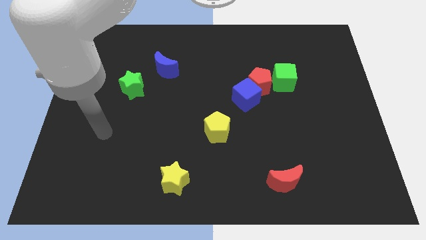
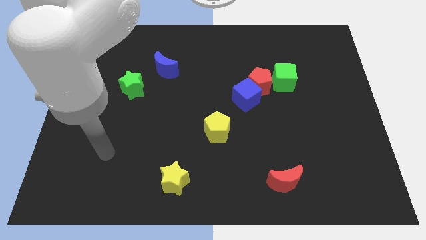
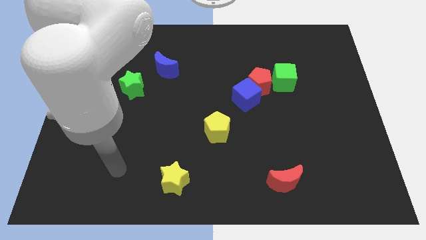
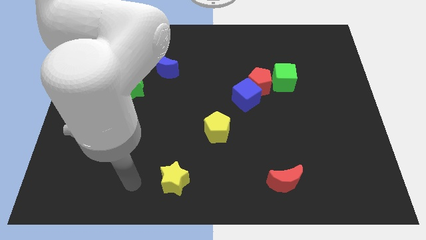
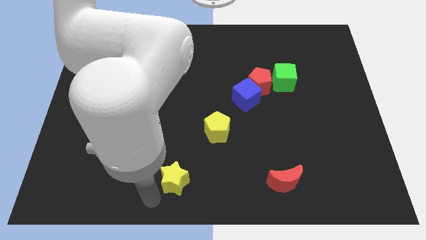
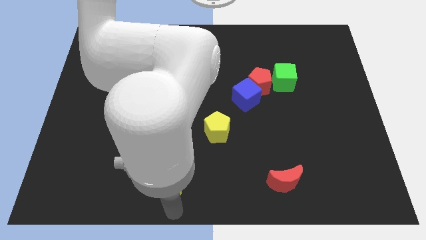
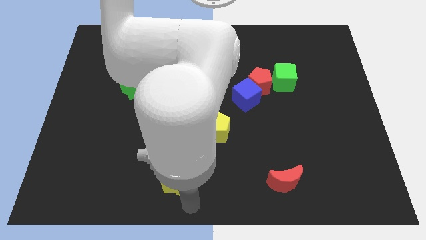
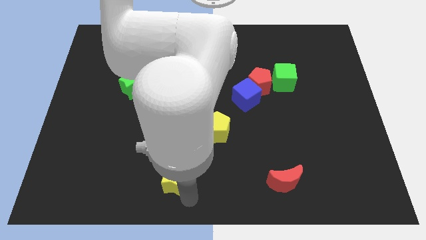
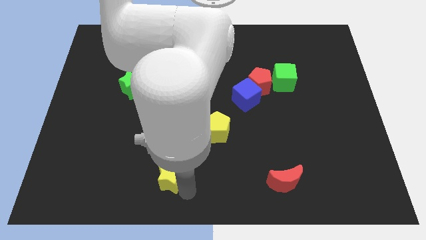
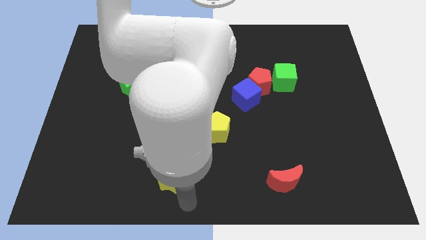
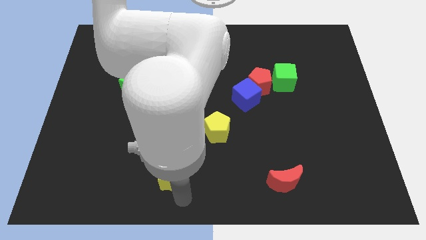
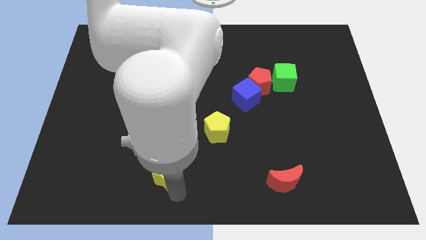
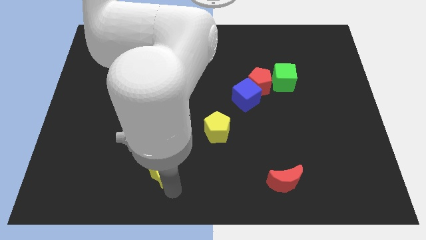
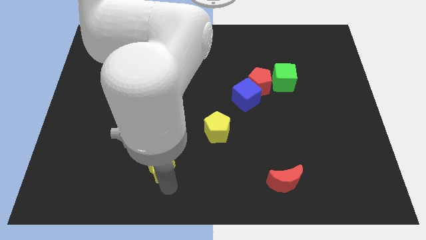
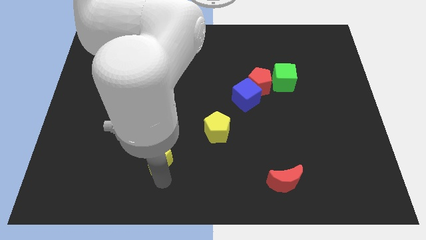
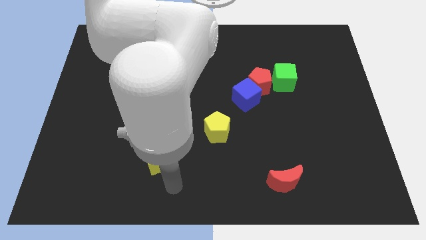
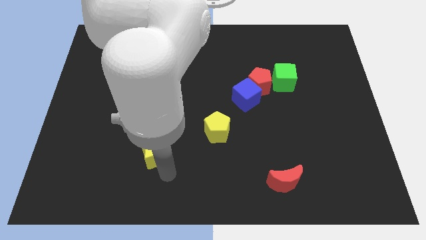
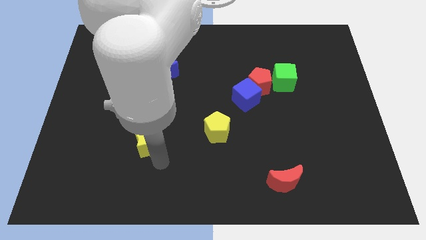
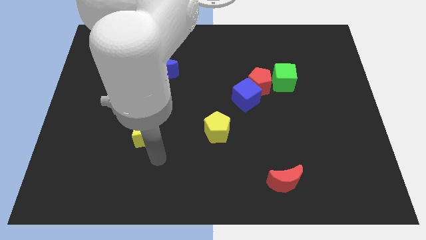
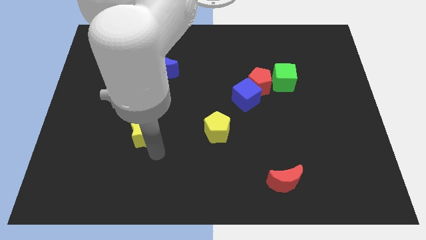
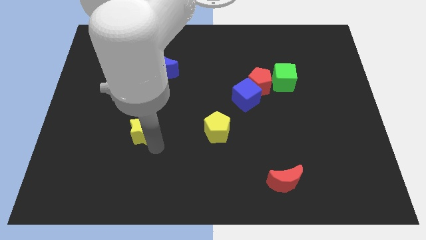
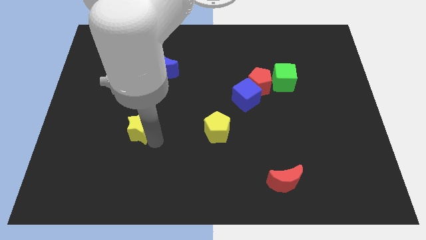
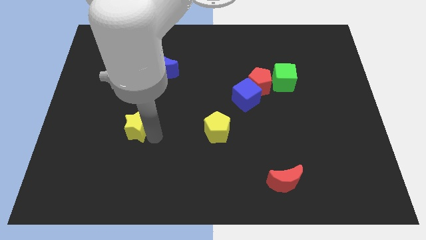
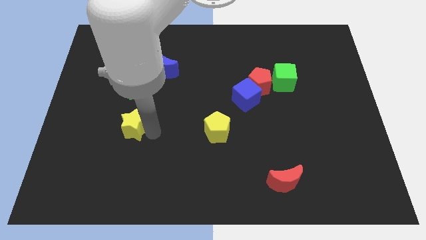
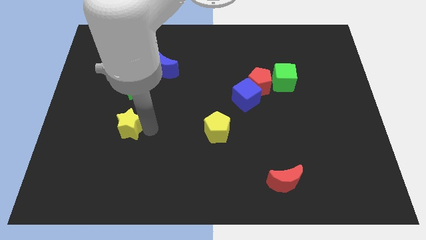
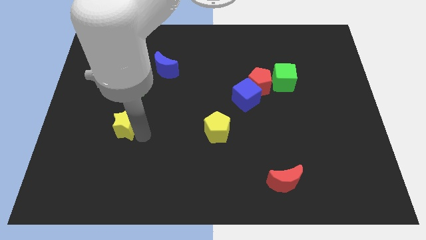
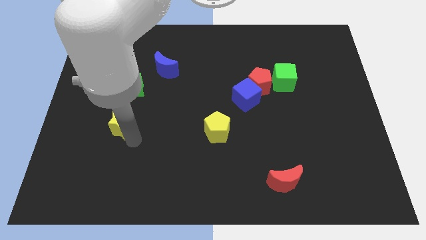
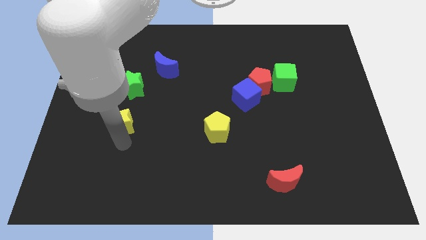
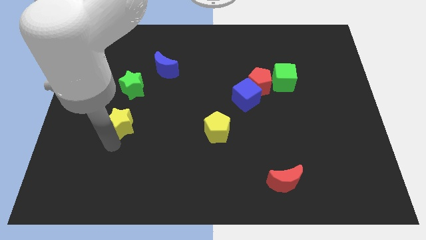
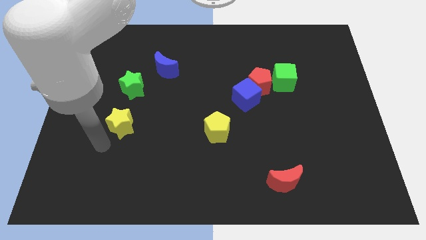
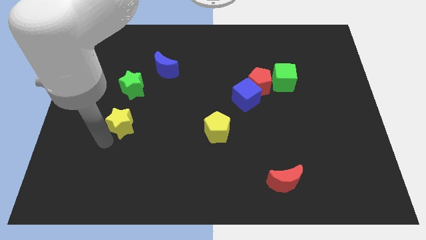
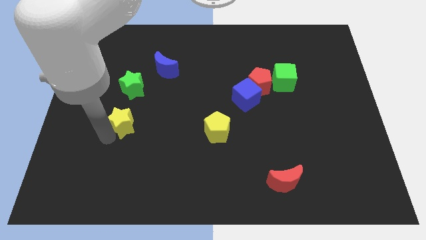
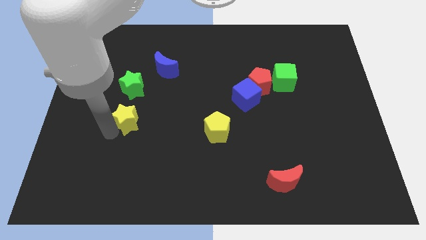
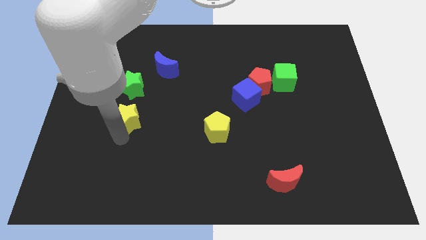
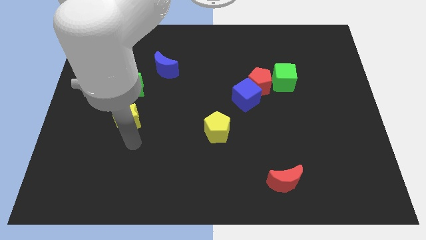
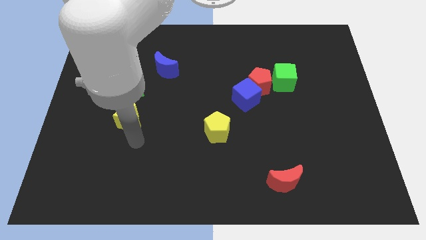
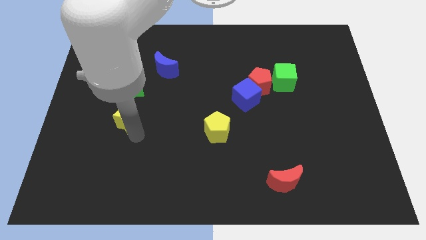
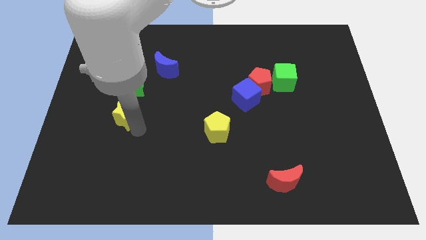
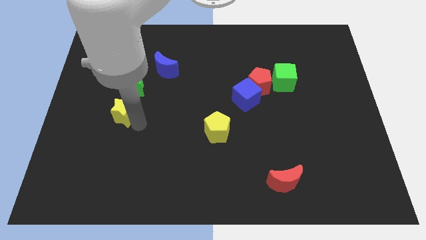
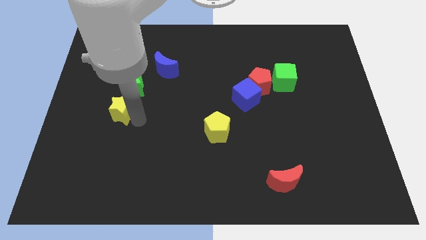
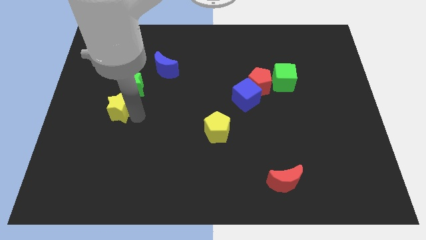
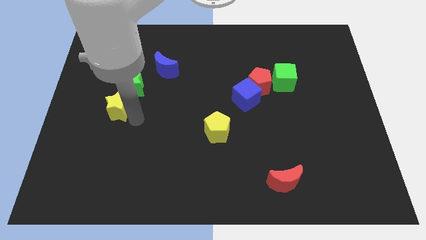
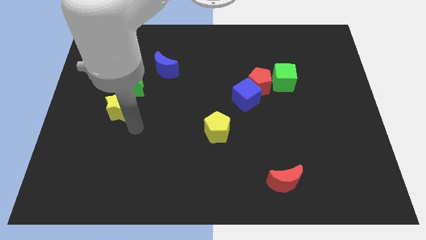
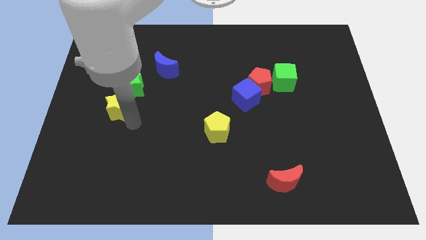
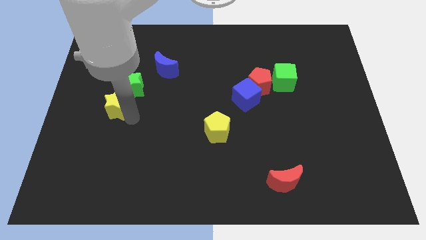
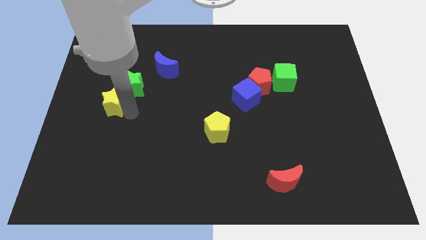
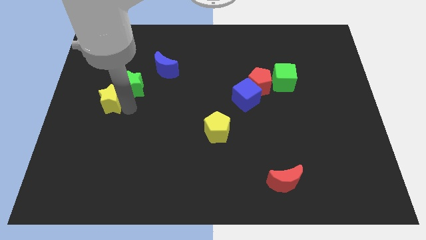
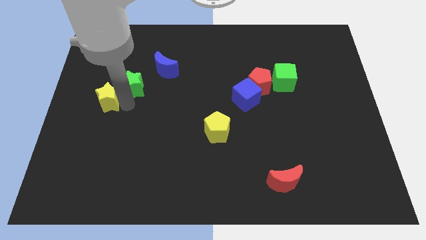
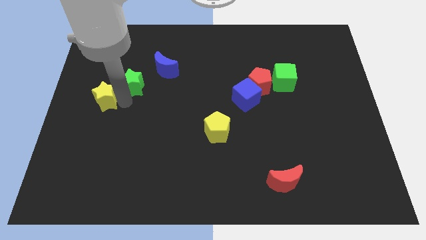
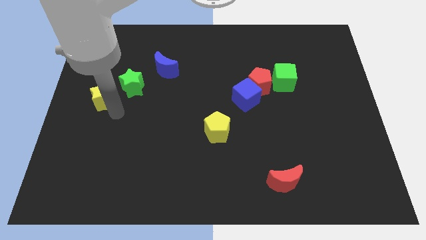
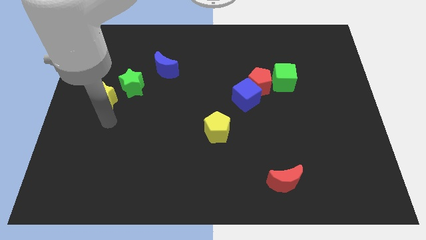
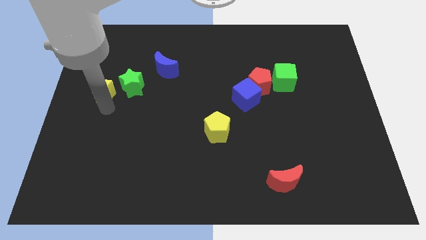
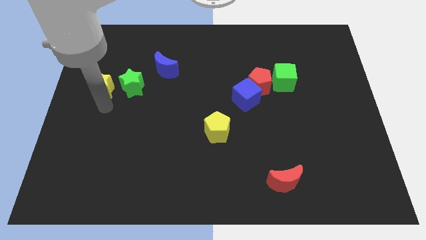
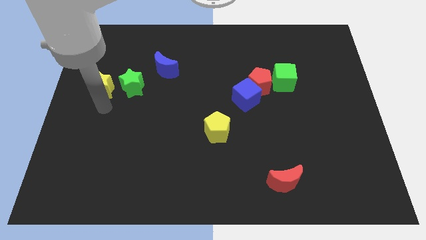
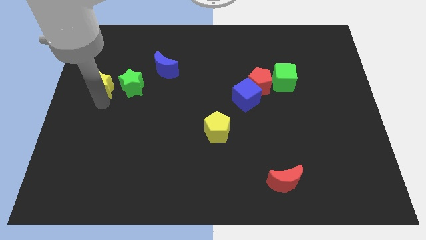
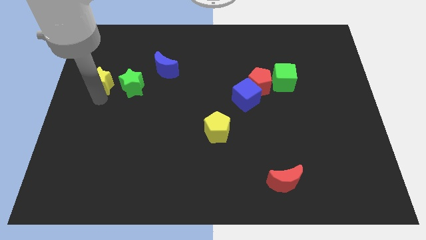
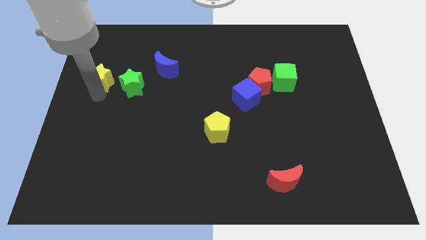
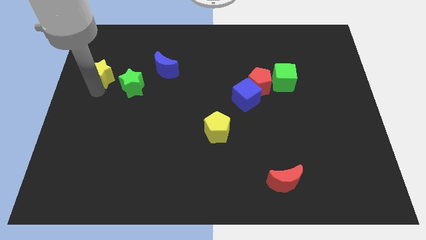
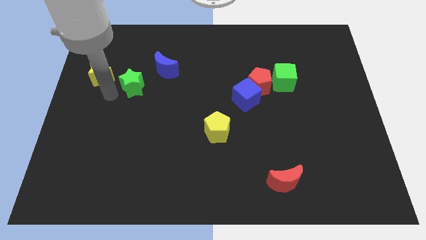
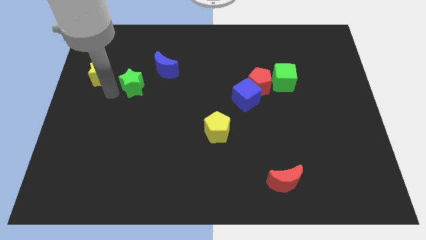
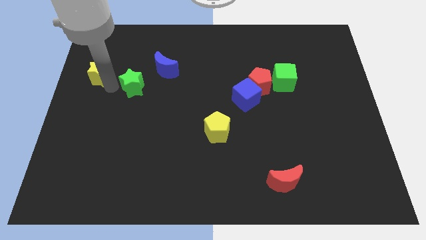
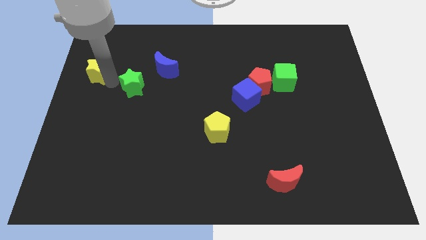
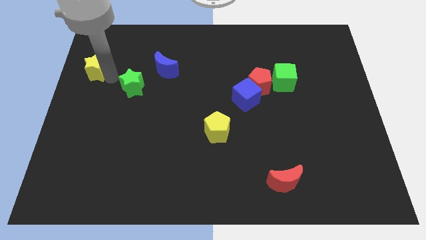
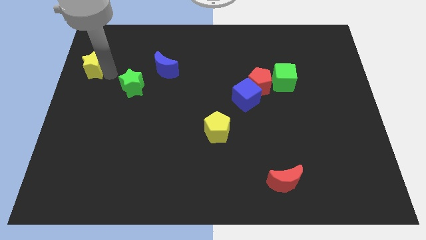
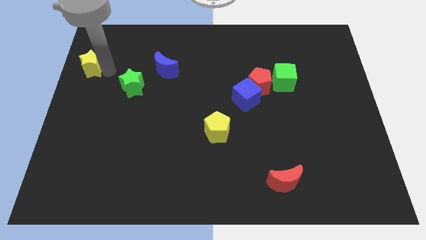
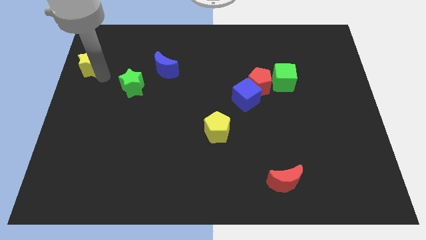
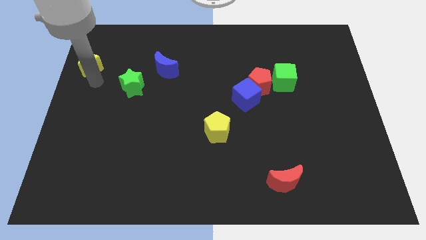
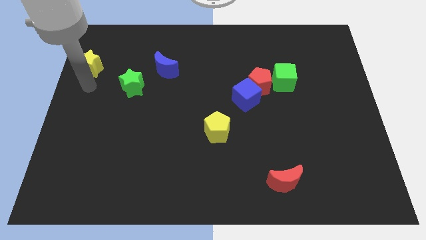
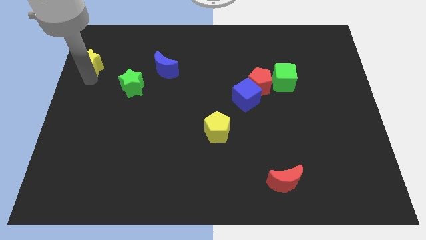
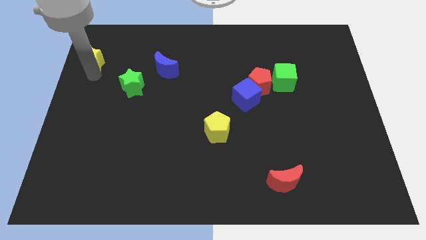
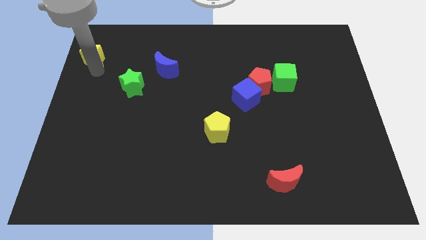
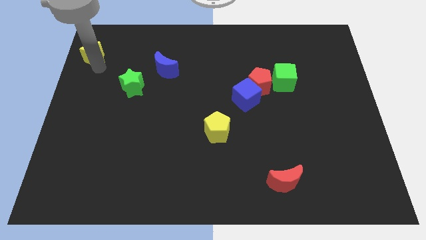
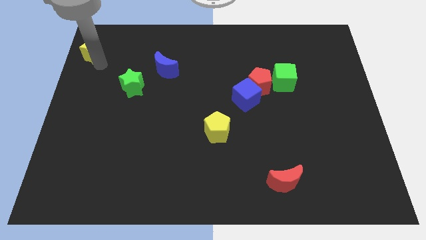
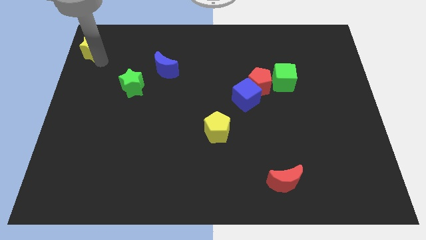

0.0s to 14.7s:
slide the yellow star to the upper left corner

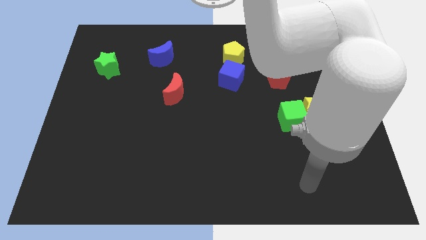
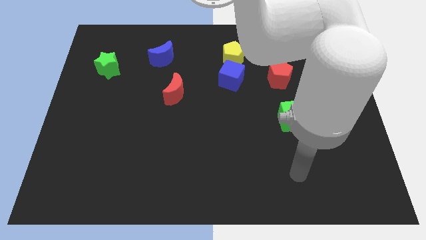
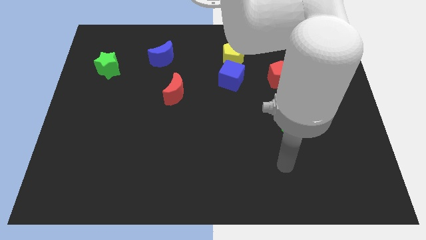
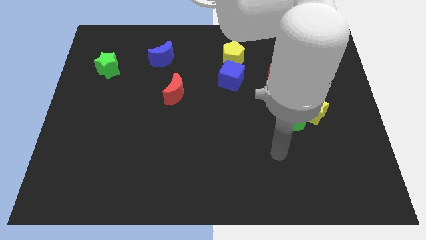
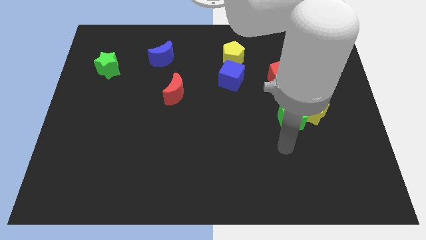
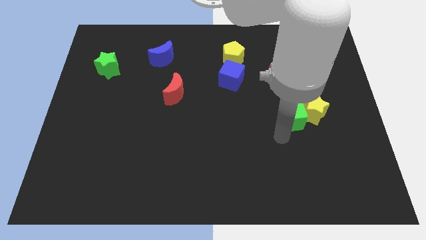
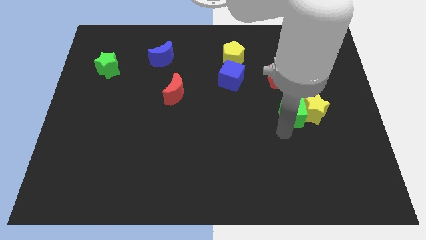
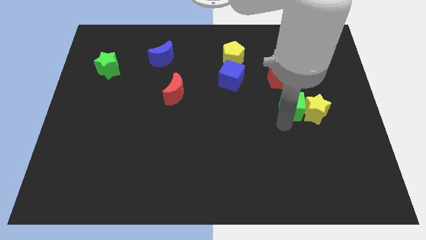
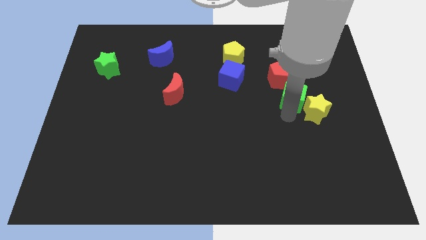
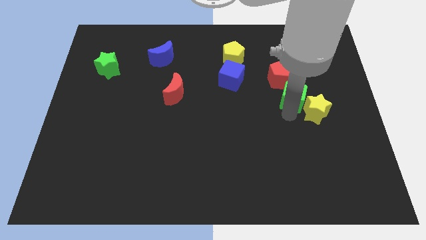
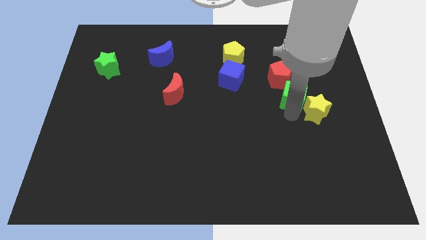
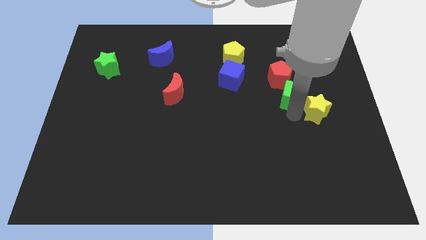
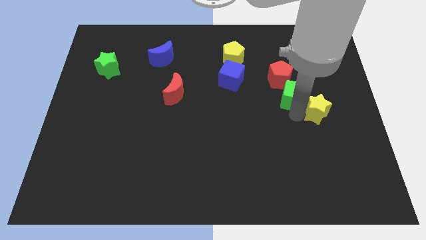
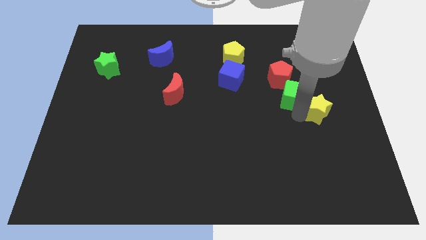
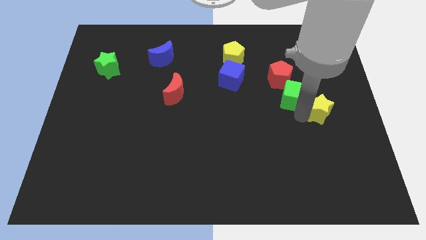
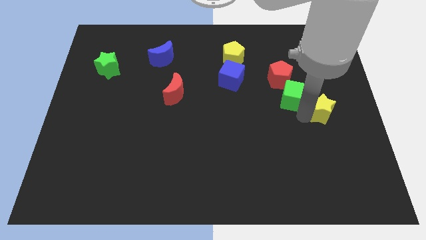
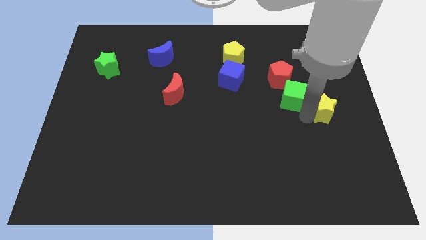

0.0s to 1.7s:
put the yellow star to the right side
